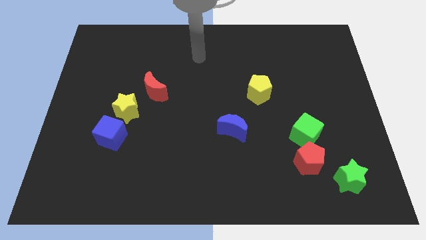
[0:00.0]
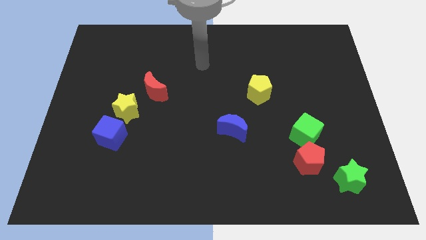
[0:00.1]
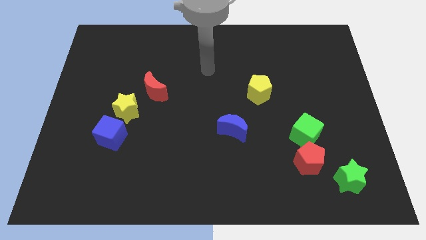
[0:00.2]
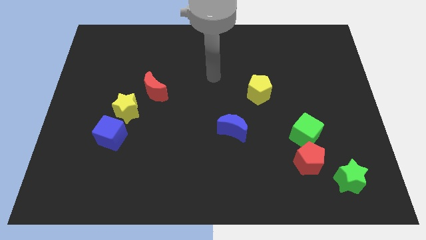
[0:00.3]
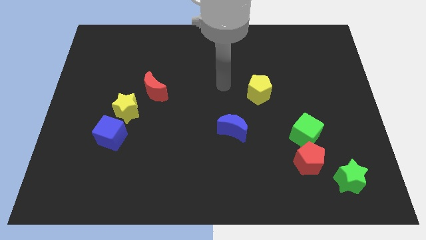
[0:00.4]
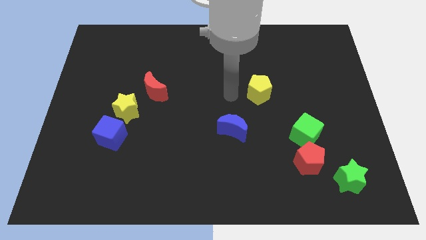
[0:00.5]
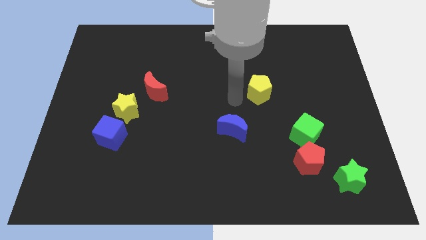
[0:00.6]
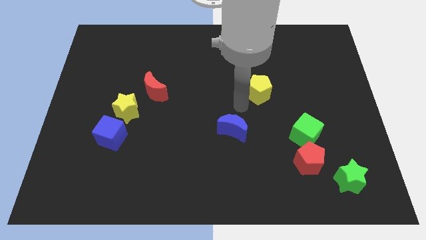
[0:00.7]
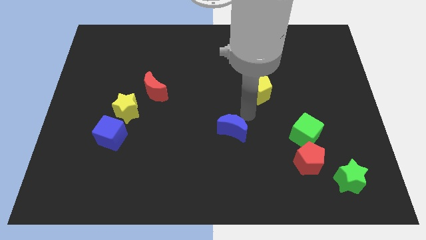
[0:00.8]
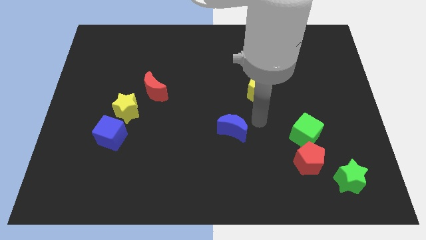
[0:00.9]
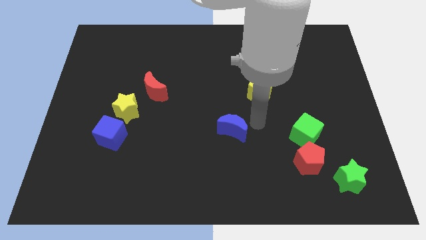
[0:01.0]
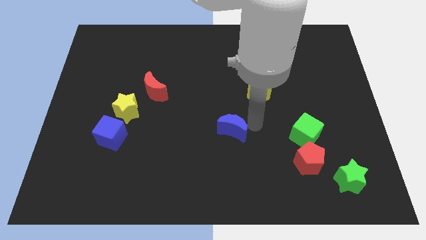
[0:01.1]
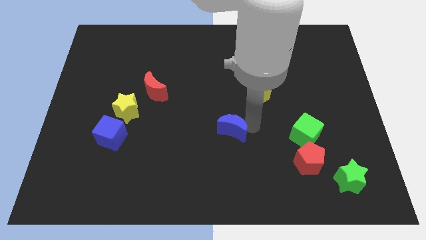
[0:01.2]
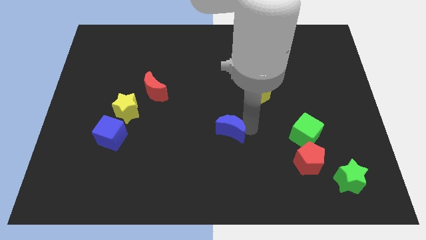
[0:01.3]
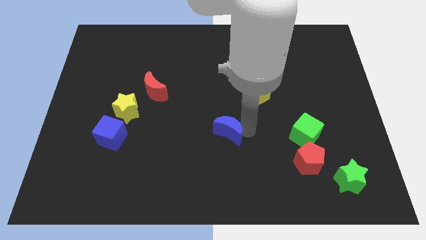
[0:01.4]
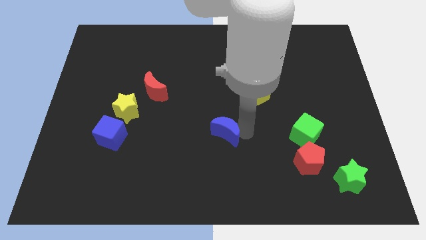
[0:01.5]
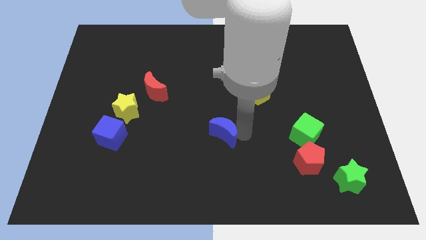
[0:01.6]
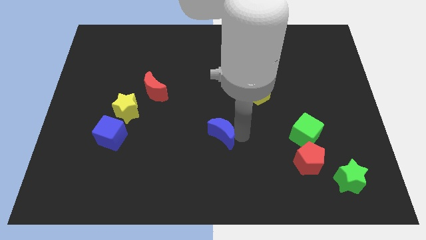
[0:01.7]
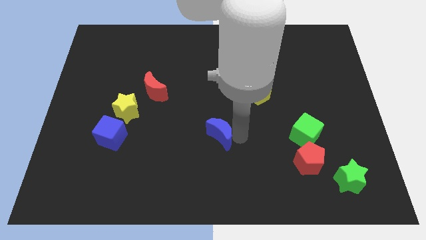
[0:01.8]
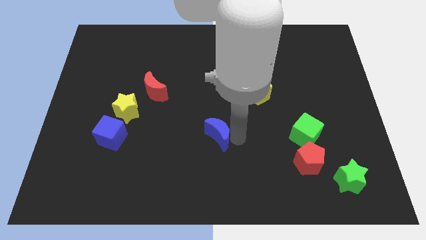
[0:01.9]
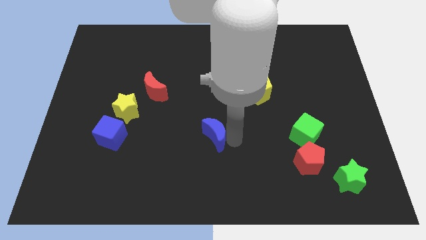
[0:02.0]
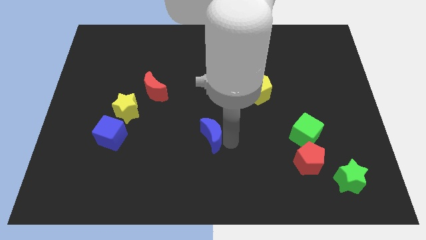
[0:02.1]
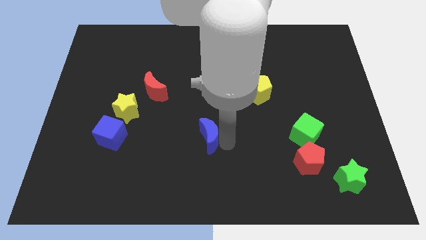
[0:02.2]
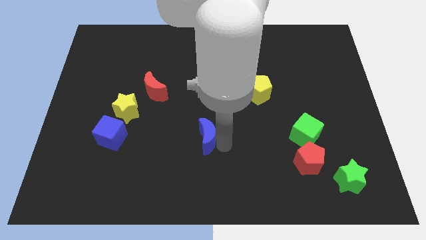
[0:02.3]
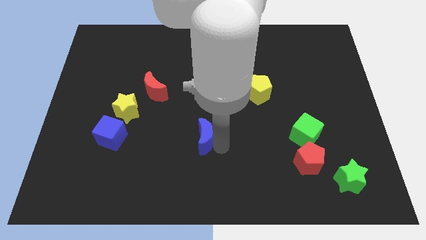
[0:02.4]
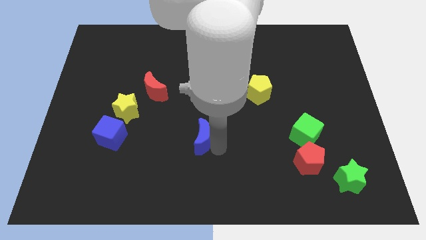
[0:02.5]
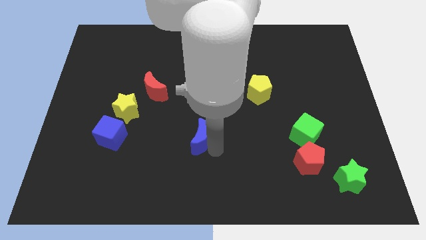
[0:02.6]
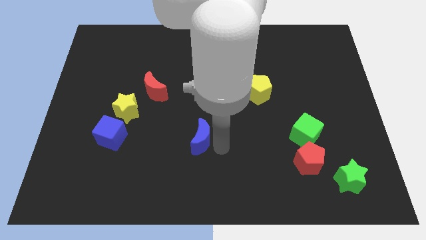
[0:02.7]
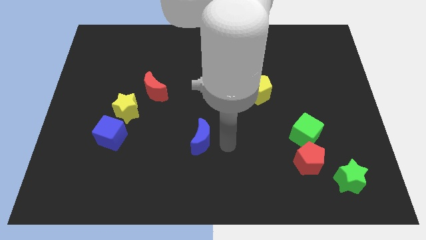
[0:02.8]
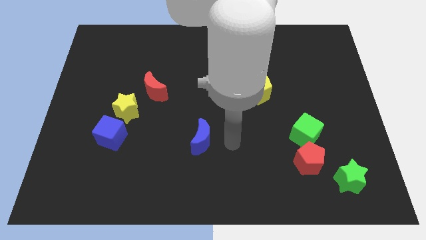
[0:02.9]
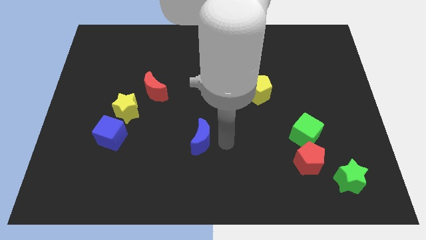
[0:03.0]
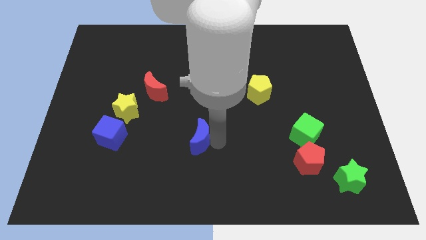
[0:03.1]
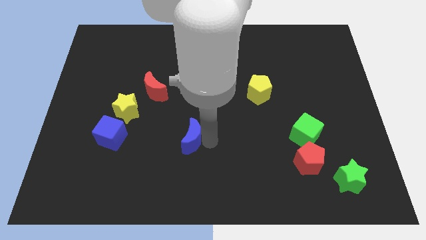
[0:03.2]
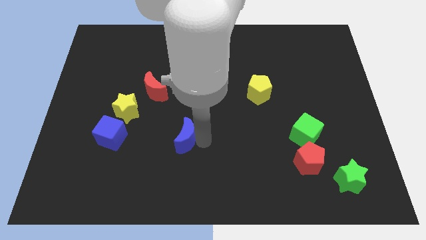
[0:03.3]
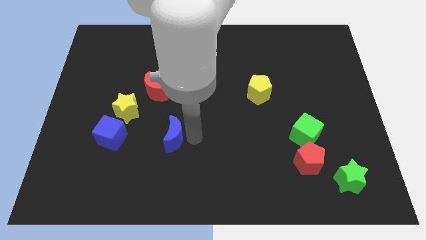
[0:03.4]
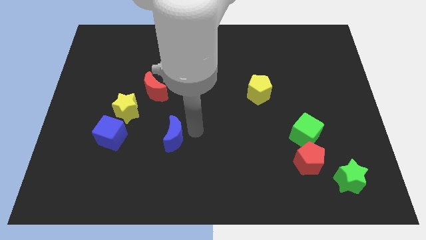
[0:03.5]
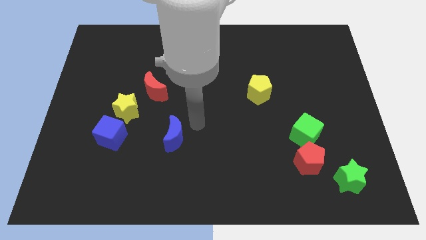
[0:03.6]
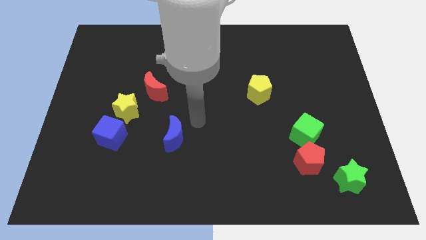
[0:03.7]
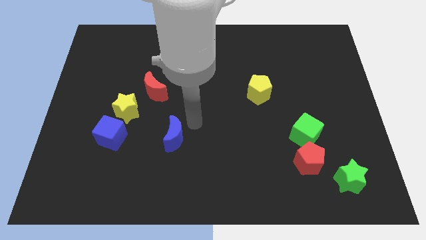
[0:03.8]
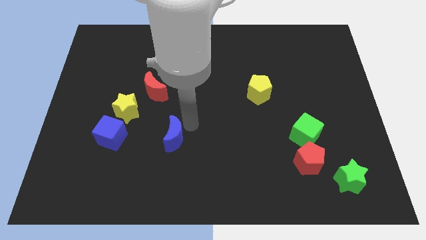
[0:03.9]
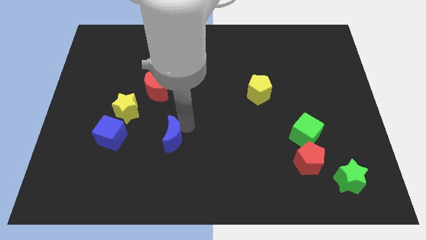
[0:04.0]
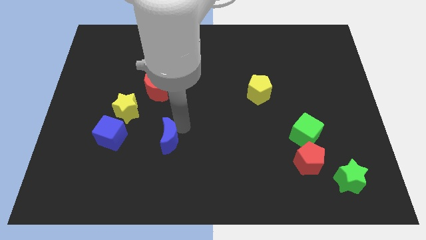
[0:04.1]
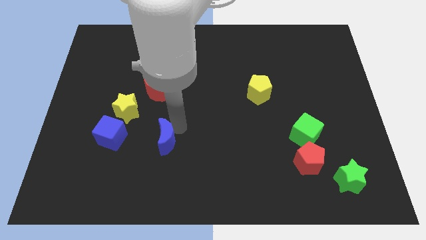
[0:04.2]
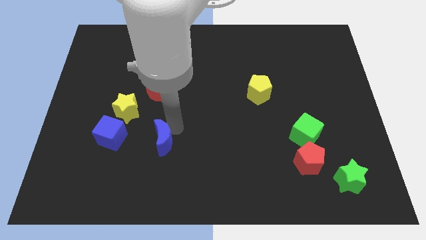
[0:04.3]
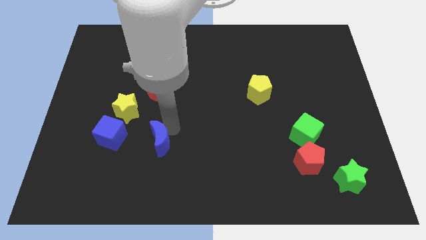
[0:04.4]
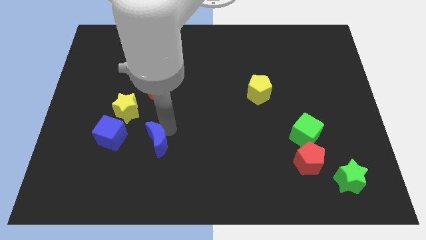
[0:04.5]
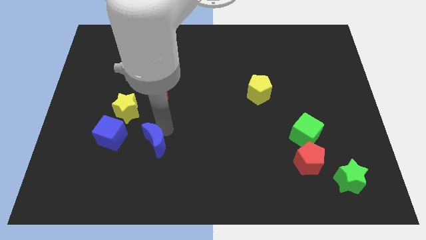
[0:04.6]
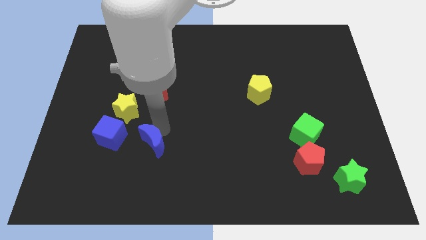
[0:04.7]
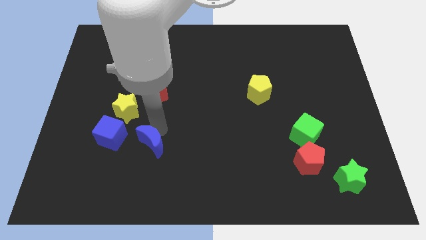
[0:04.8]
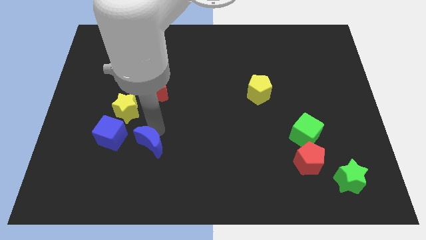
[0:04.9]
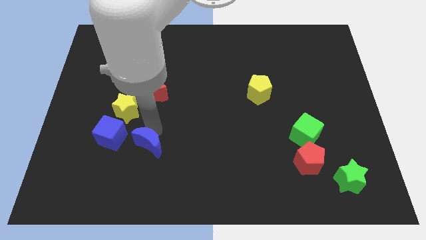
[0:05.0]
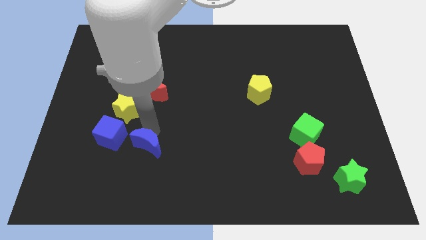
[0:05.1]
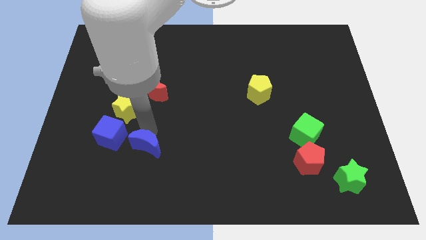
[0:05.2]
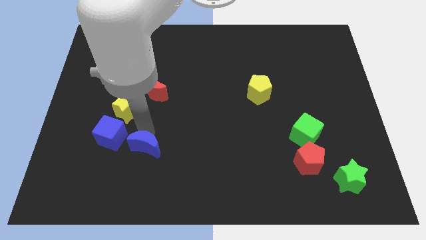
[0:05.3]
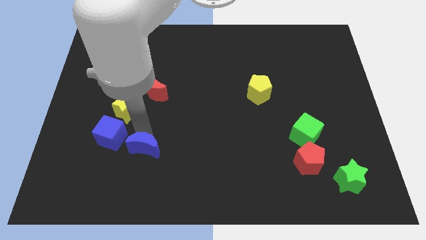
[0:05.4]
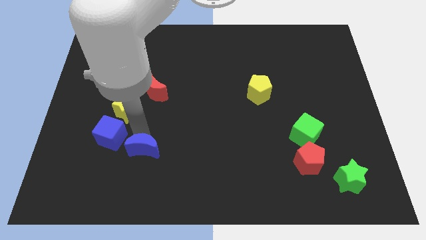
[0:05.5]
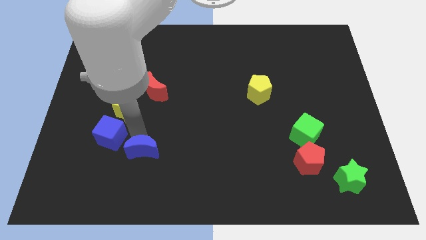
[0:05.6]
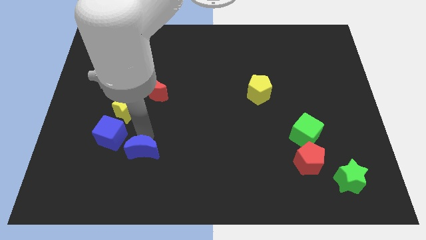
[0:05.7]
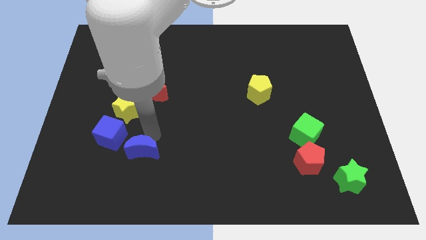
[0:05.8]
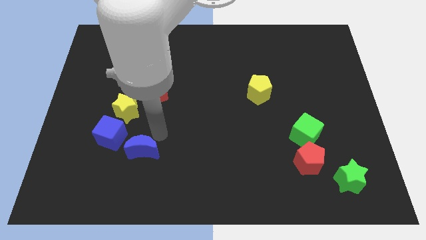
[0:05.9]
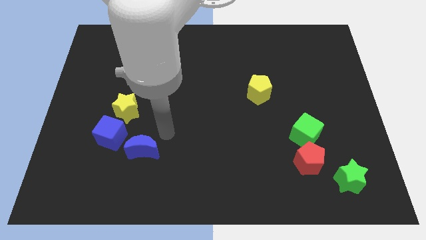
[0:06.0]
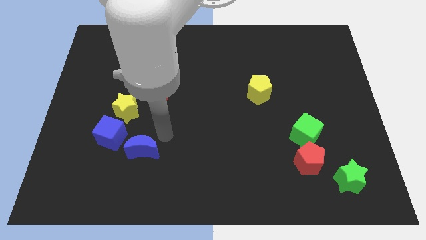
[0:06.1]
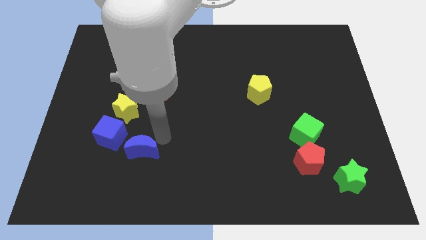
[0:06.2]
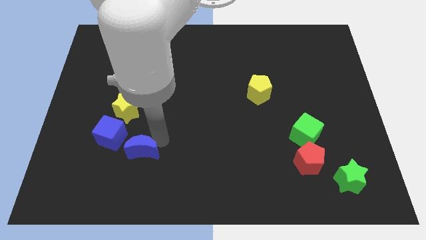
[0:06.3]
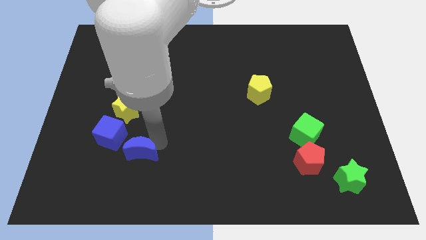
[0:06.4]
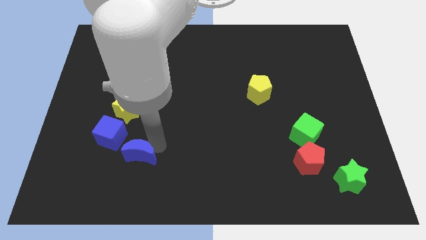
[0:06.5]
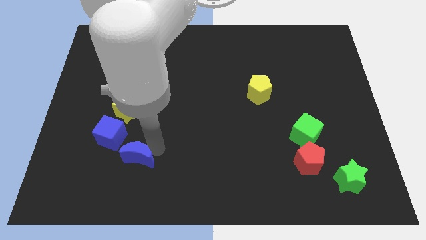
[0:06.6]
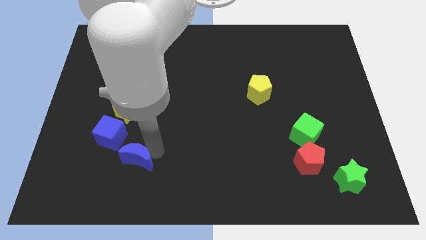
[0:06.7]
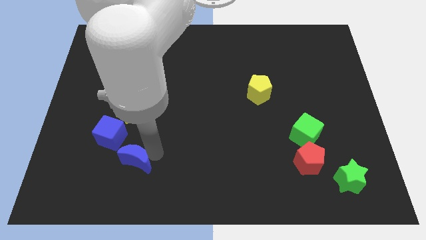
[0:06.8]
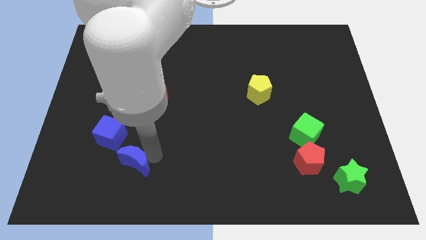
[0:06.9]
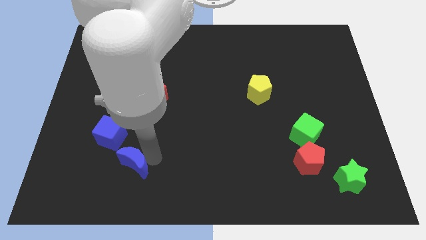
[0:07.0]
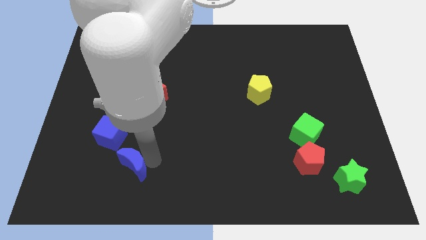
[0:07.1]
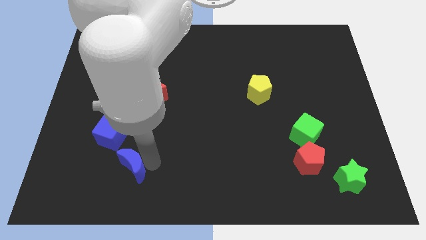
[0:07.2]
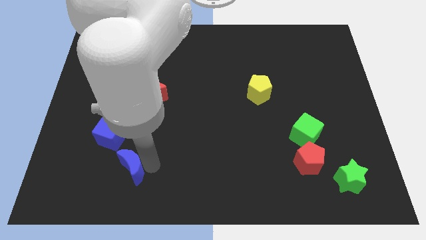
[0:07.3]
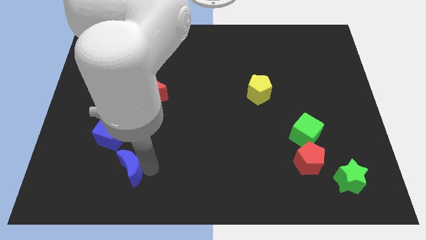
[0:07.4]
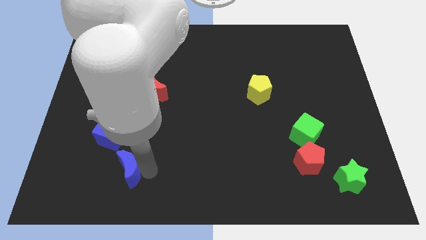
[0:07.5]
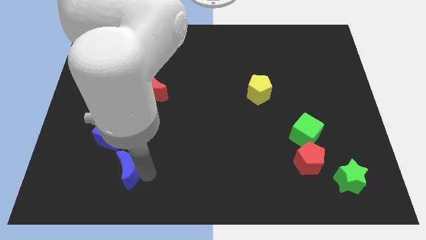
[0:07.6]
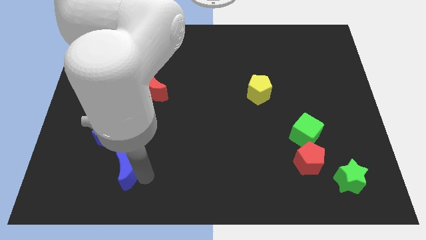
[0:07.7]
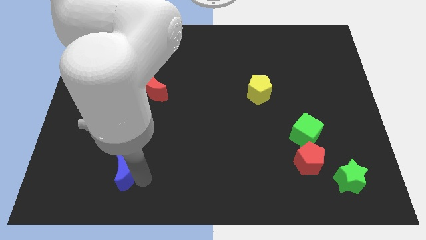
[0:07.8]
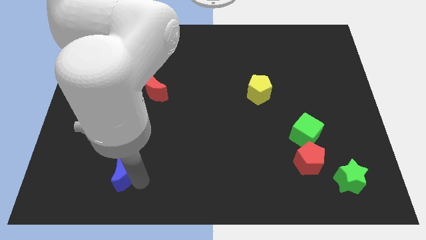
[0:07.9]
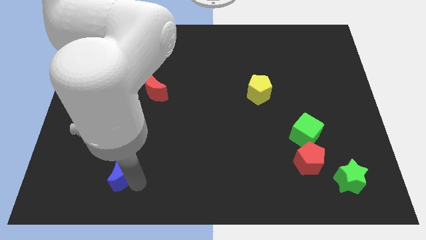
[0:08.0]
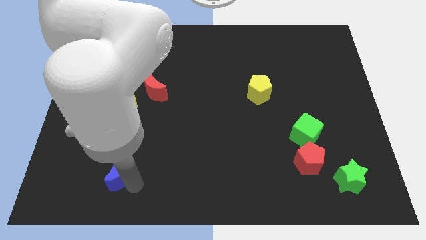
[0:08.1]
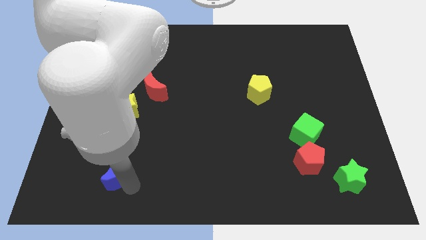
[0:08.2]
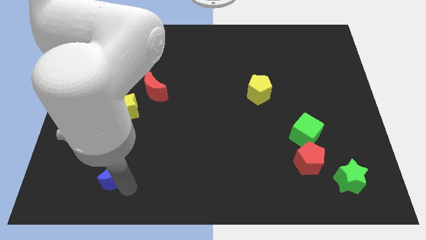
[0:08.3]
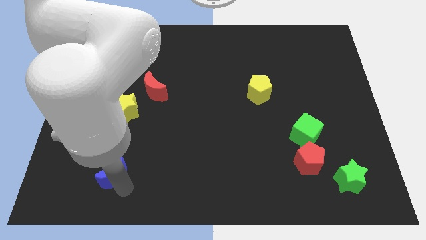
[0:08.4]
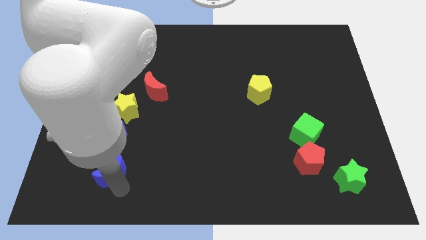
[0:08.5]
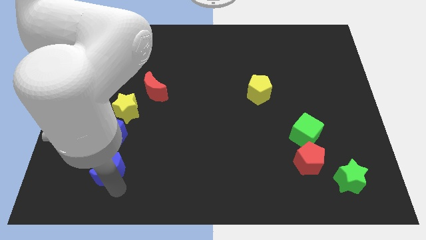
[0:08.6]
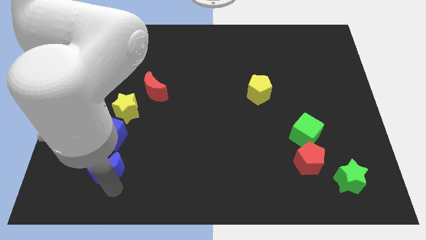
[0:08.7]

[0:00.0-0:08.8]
slide the blue moon left
